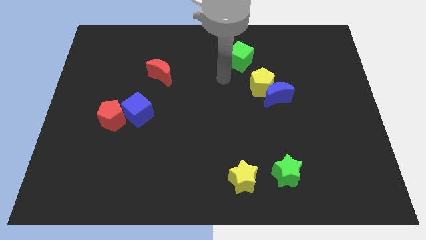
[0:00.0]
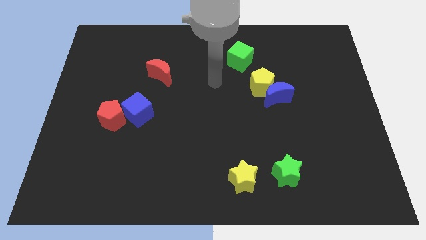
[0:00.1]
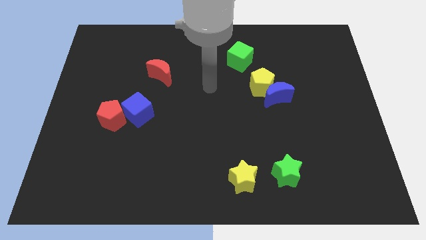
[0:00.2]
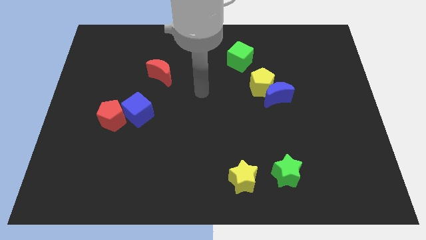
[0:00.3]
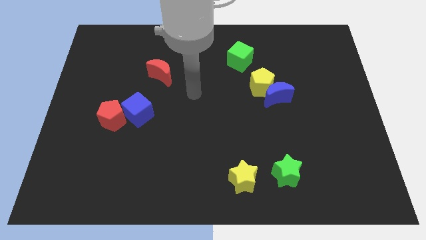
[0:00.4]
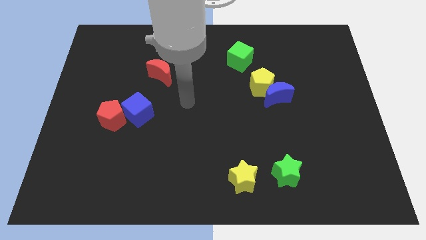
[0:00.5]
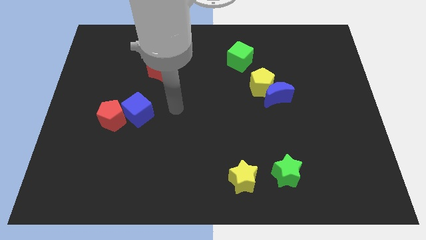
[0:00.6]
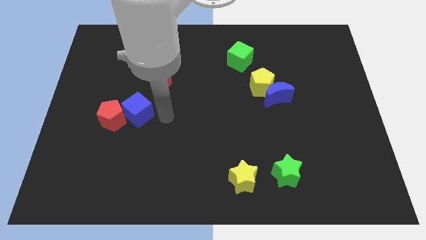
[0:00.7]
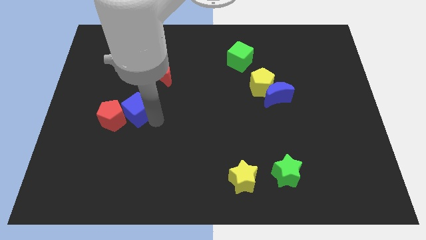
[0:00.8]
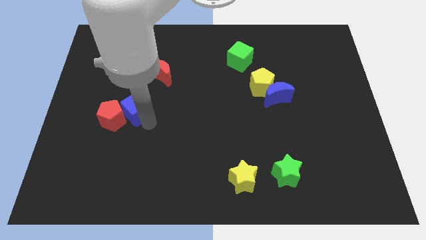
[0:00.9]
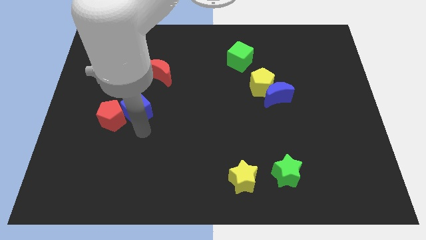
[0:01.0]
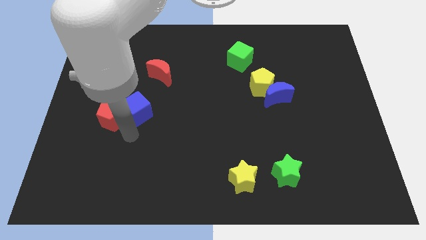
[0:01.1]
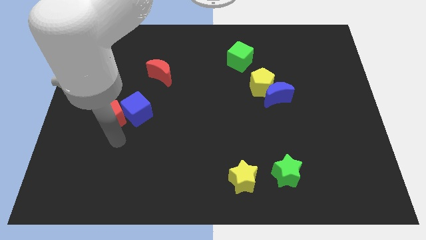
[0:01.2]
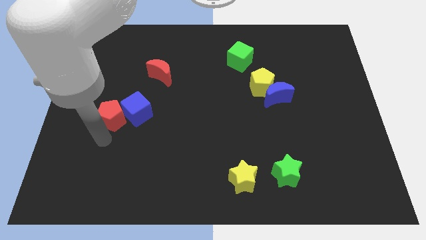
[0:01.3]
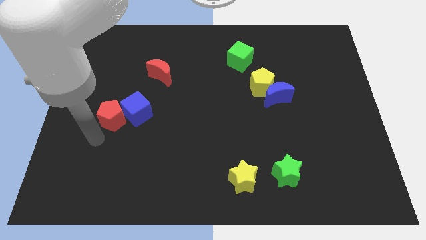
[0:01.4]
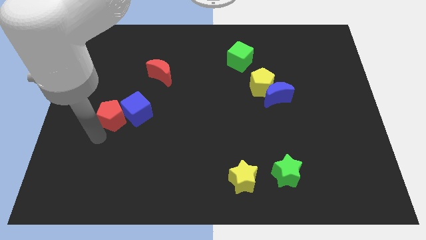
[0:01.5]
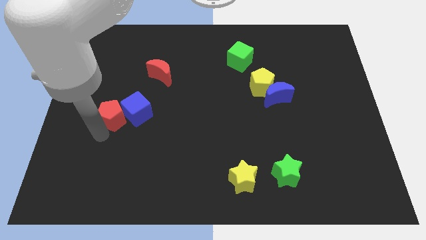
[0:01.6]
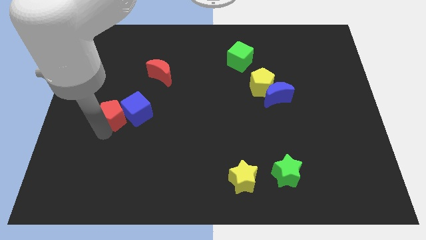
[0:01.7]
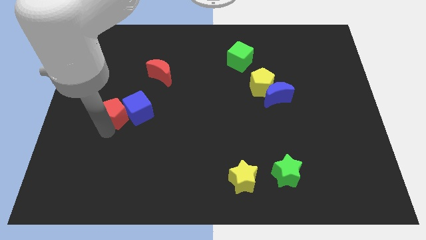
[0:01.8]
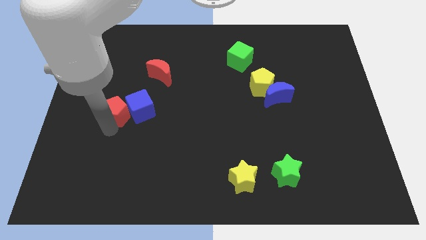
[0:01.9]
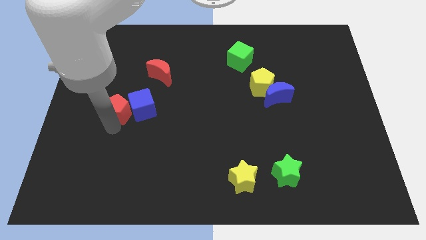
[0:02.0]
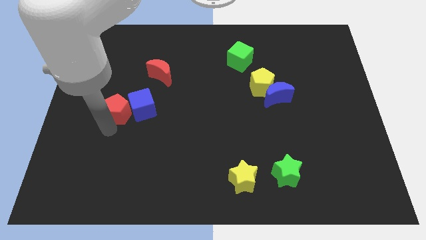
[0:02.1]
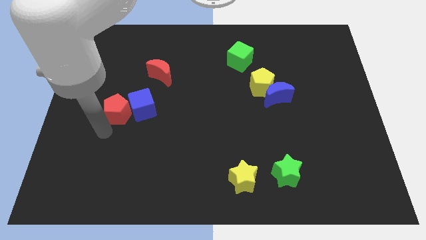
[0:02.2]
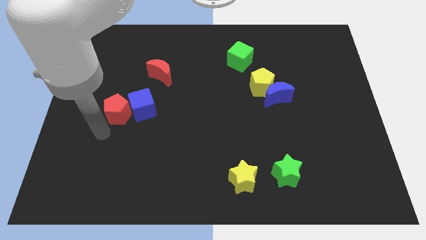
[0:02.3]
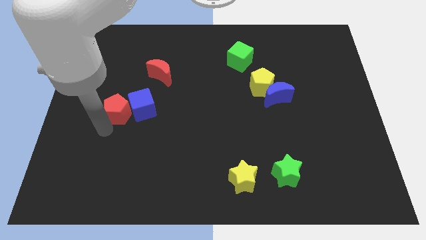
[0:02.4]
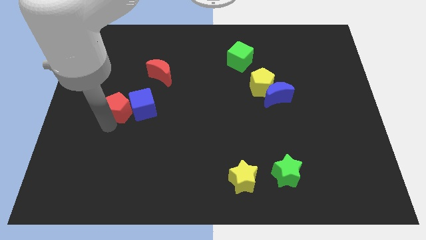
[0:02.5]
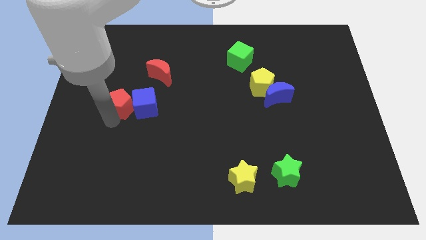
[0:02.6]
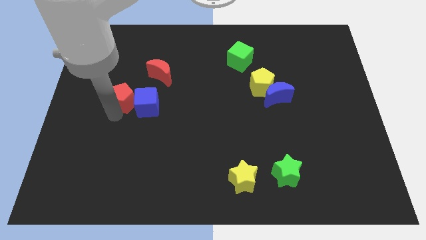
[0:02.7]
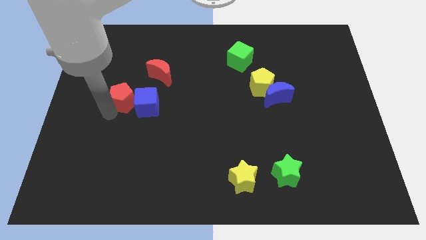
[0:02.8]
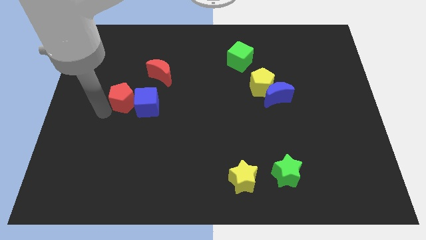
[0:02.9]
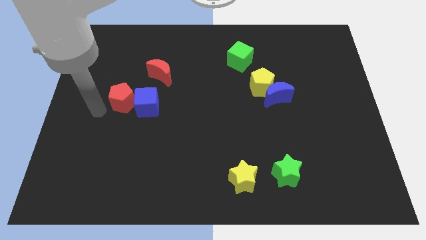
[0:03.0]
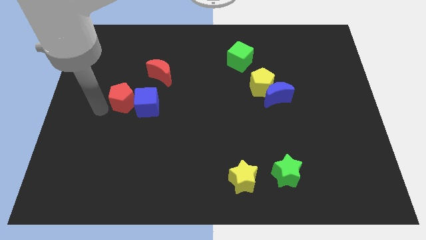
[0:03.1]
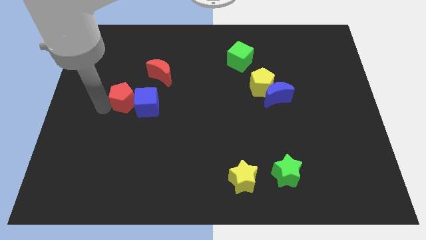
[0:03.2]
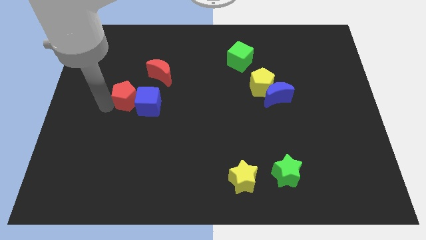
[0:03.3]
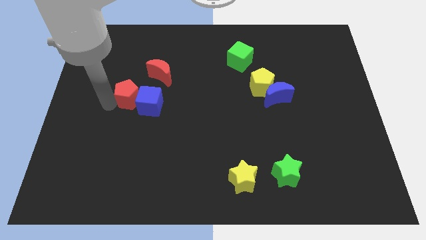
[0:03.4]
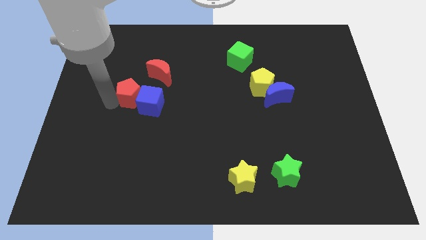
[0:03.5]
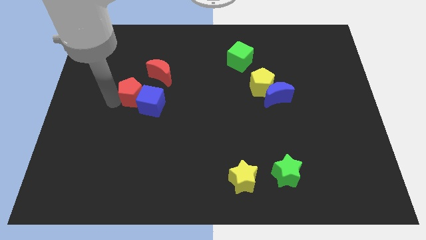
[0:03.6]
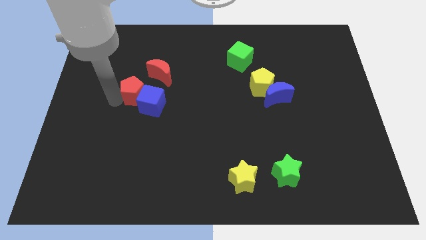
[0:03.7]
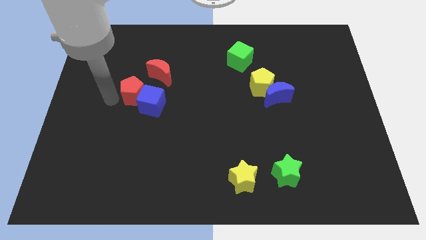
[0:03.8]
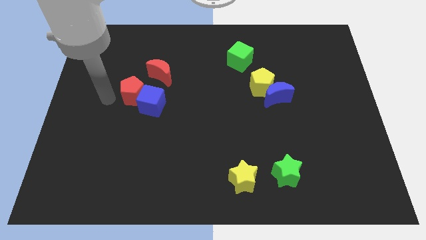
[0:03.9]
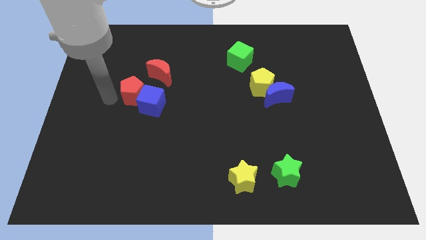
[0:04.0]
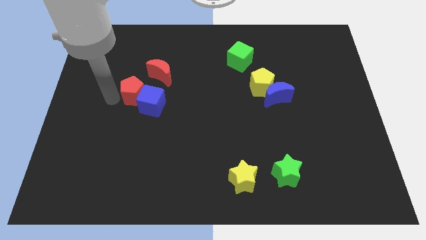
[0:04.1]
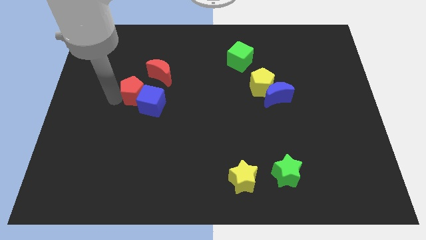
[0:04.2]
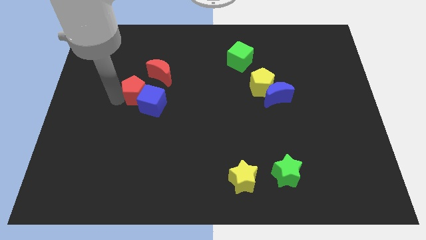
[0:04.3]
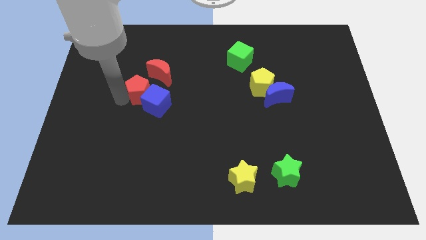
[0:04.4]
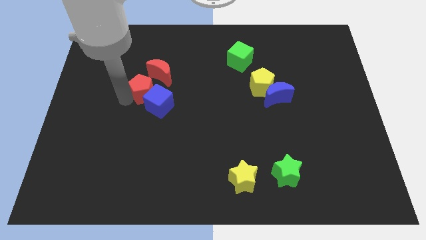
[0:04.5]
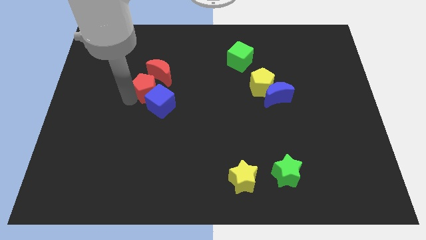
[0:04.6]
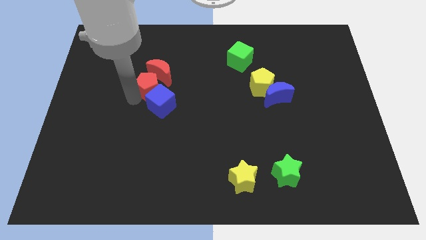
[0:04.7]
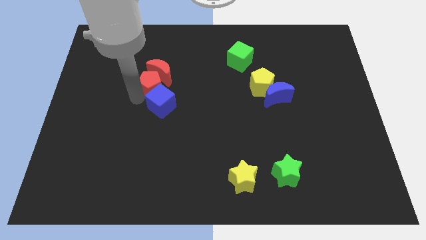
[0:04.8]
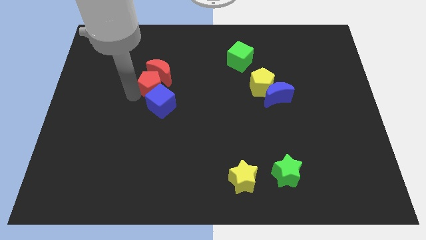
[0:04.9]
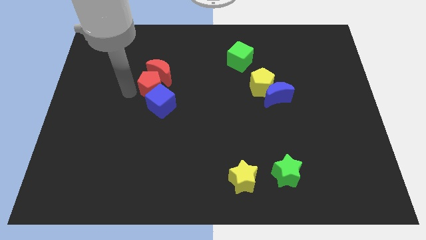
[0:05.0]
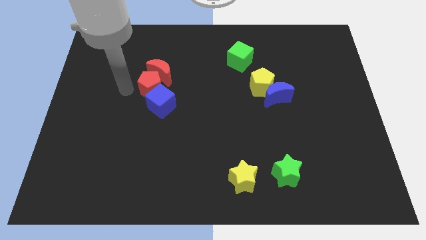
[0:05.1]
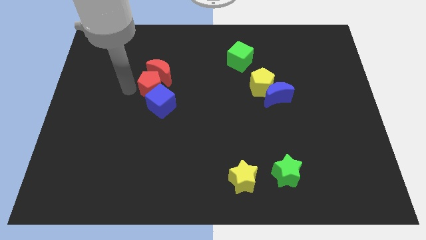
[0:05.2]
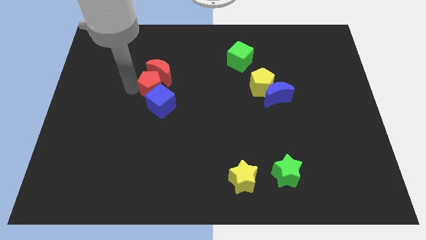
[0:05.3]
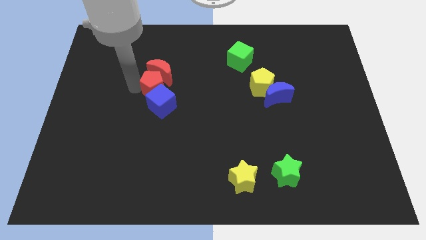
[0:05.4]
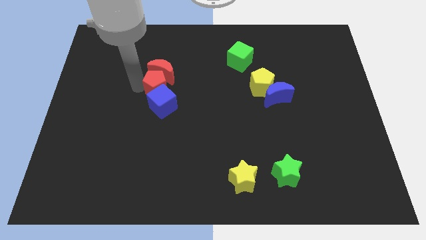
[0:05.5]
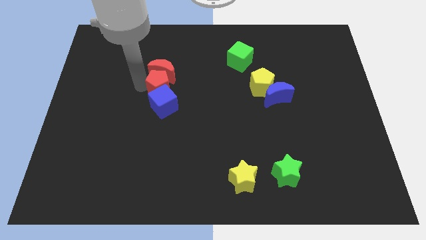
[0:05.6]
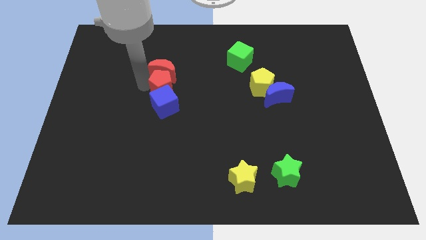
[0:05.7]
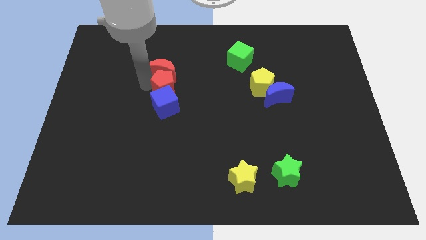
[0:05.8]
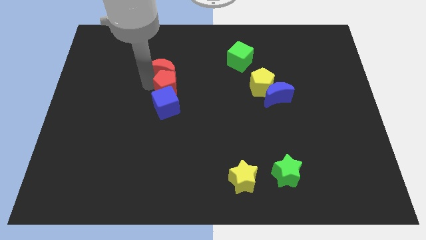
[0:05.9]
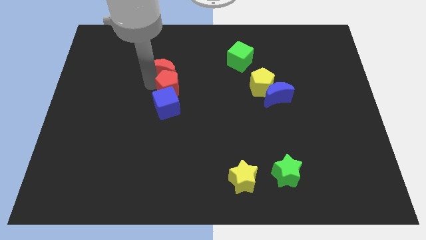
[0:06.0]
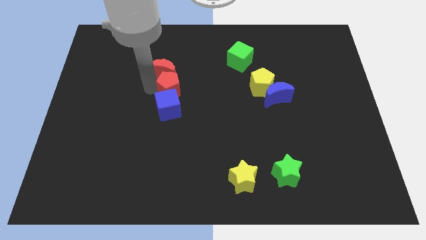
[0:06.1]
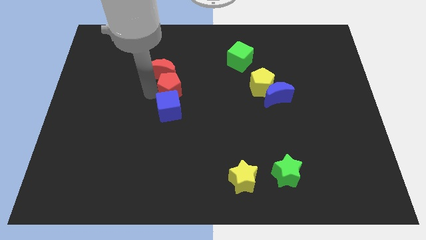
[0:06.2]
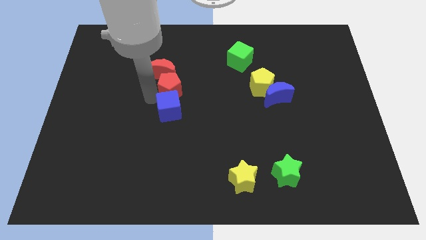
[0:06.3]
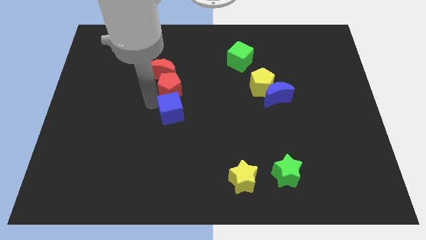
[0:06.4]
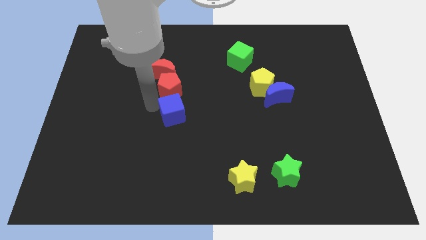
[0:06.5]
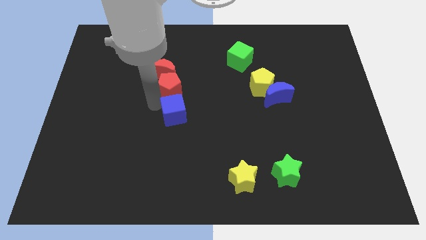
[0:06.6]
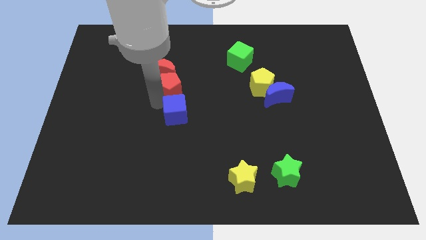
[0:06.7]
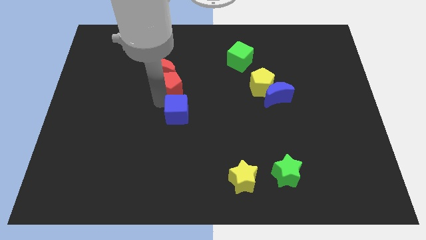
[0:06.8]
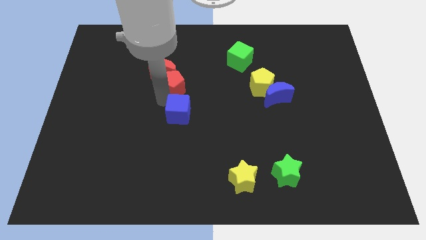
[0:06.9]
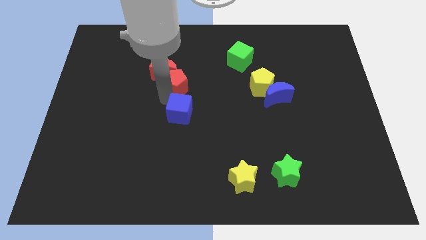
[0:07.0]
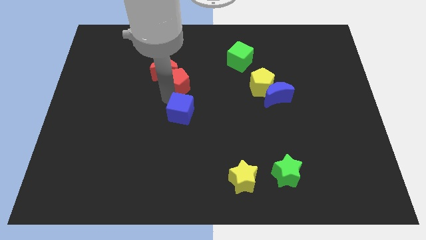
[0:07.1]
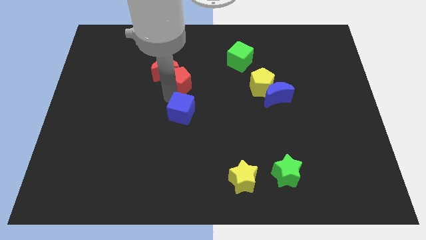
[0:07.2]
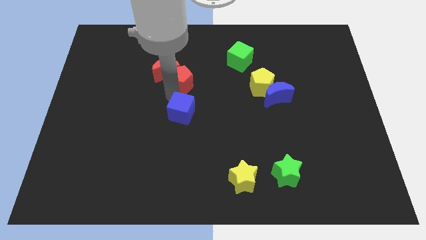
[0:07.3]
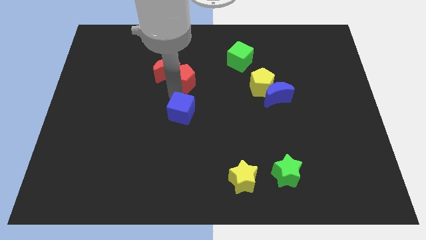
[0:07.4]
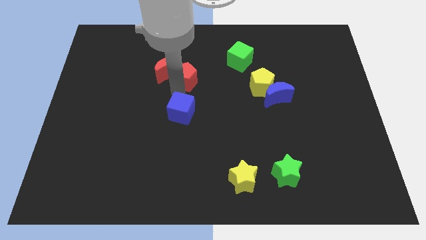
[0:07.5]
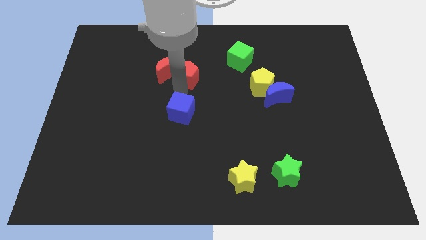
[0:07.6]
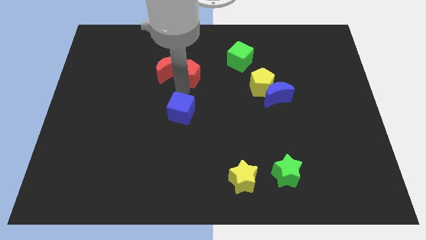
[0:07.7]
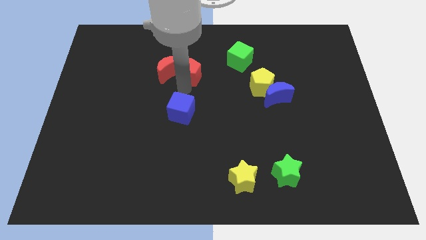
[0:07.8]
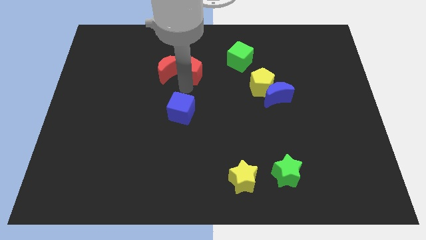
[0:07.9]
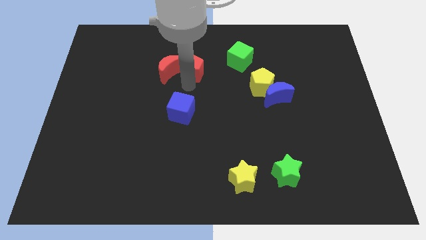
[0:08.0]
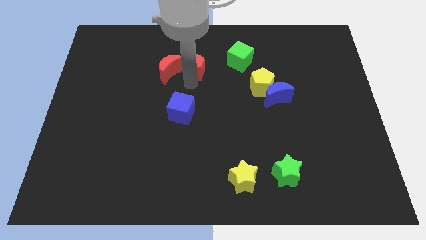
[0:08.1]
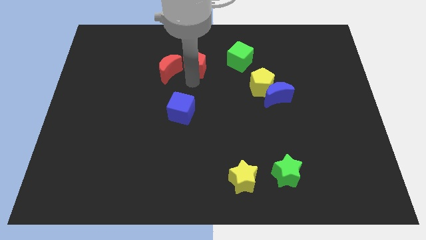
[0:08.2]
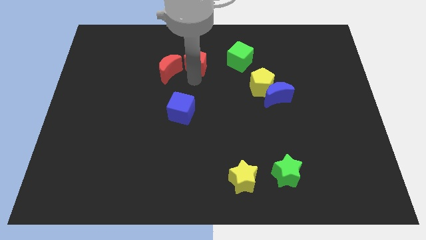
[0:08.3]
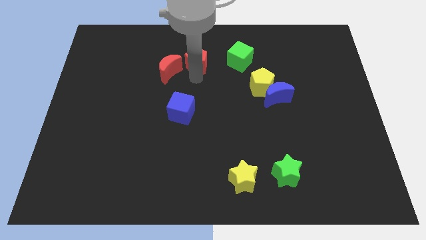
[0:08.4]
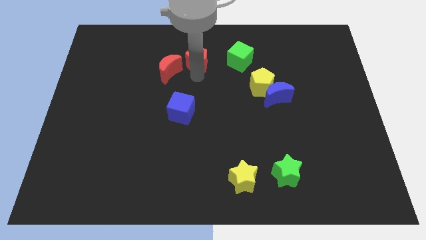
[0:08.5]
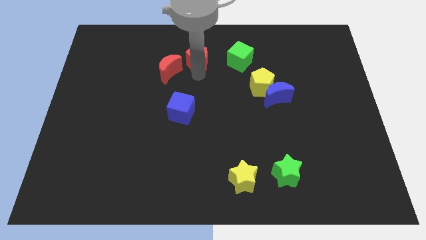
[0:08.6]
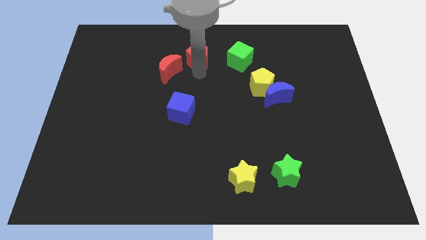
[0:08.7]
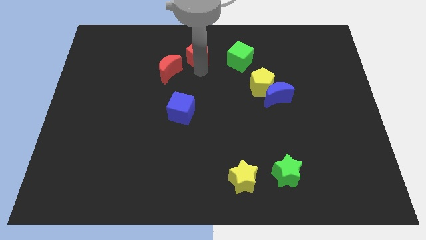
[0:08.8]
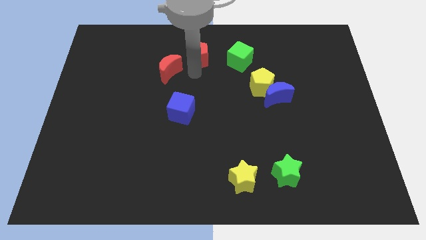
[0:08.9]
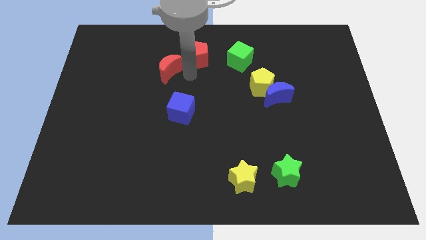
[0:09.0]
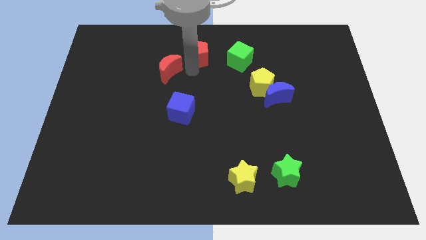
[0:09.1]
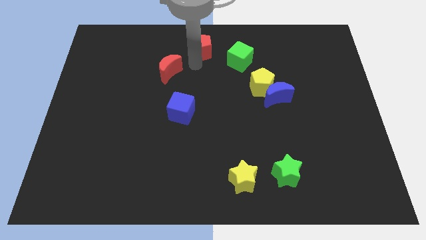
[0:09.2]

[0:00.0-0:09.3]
put the red pentagon to the top side
